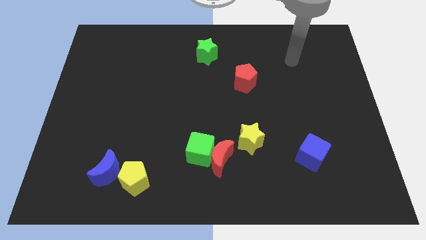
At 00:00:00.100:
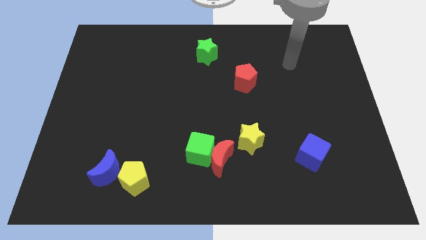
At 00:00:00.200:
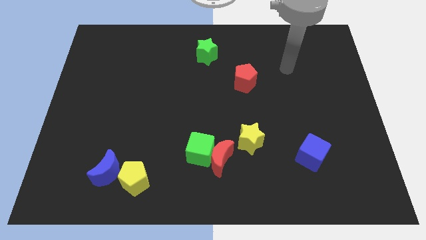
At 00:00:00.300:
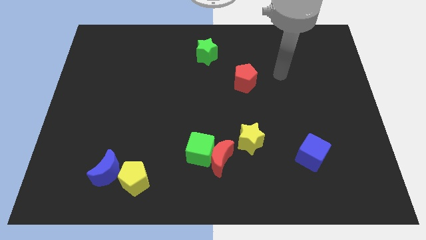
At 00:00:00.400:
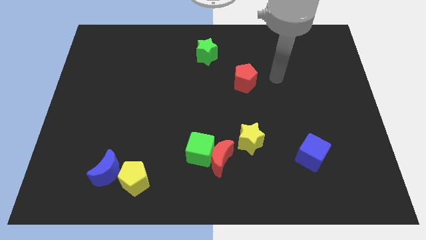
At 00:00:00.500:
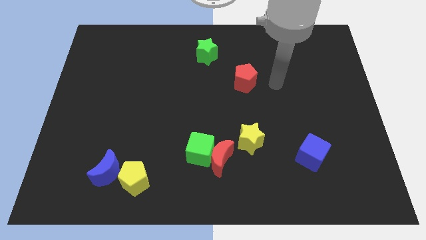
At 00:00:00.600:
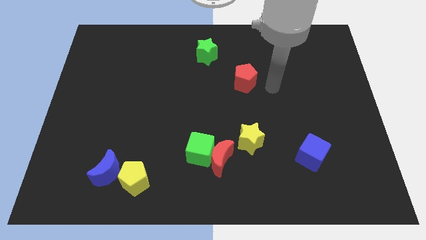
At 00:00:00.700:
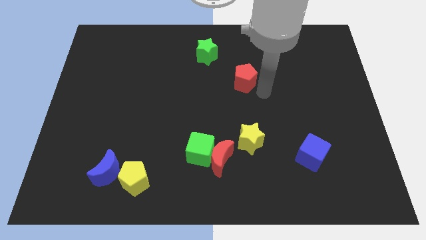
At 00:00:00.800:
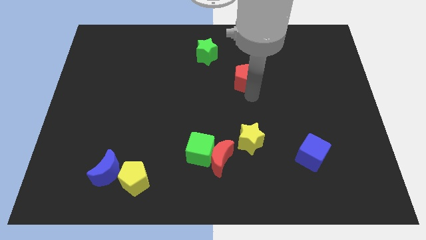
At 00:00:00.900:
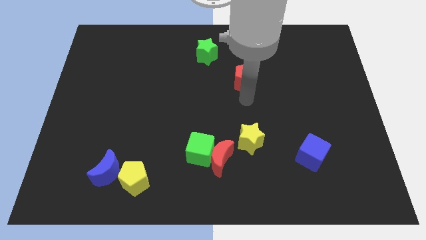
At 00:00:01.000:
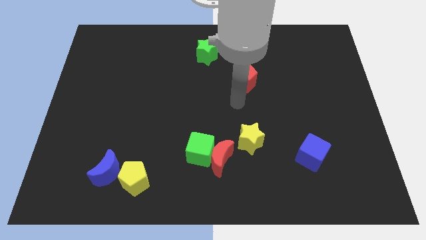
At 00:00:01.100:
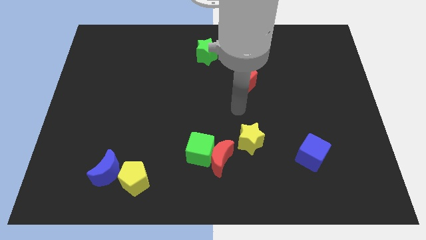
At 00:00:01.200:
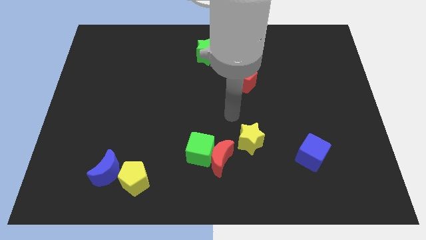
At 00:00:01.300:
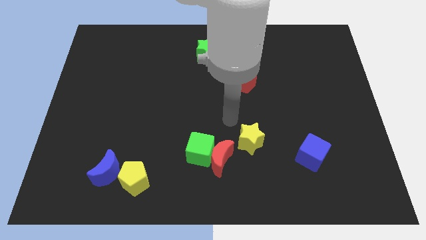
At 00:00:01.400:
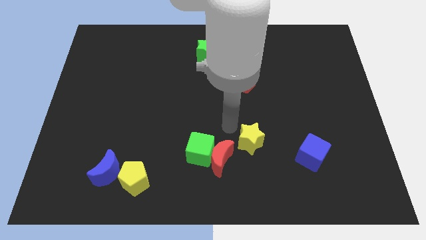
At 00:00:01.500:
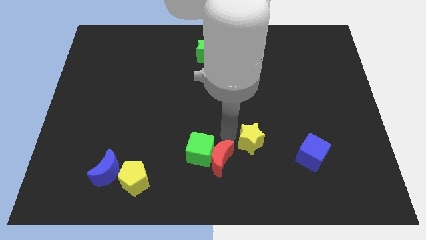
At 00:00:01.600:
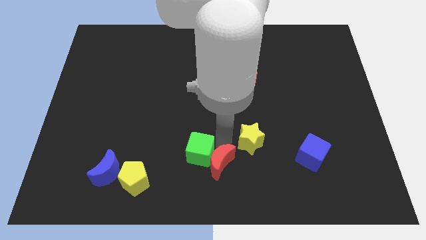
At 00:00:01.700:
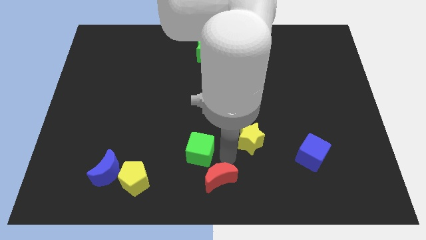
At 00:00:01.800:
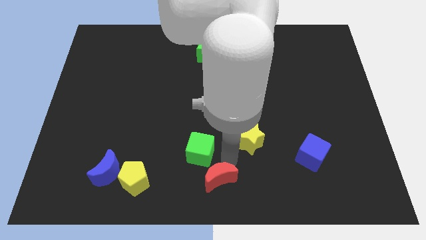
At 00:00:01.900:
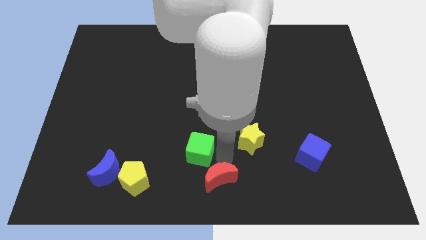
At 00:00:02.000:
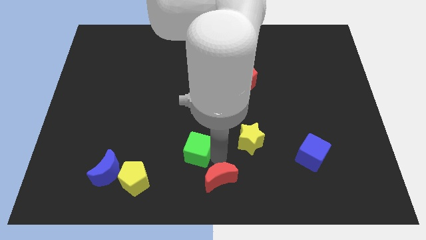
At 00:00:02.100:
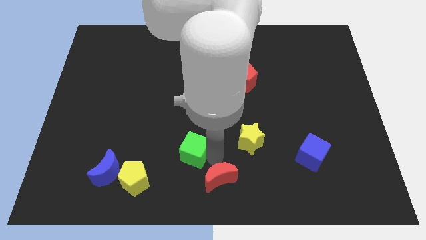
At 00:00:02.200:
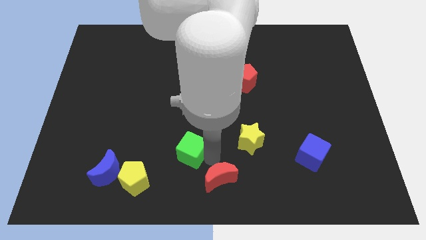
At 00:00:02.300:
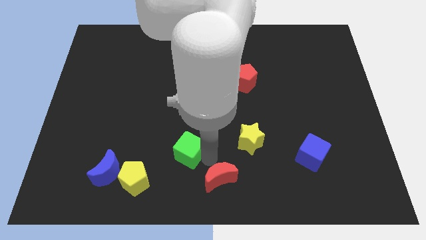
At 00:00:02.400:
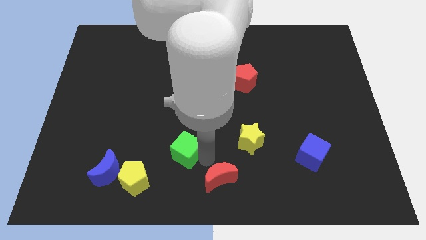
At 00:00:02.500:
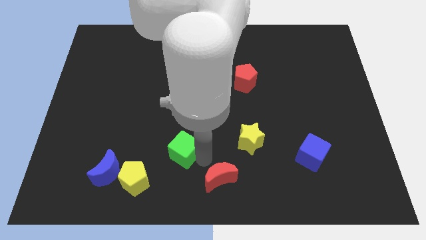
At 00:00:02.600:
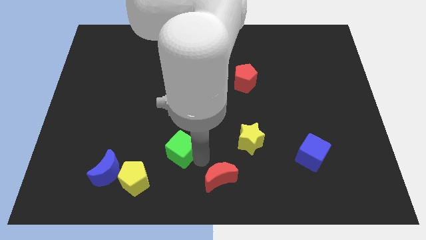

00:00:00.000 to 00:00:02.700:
pull the green cube apart from the red moon

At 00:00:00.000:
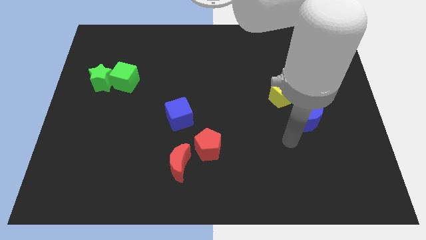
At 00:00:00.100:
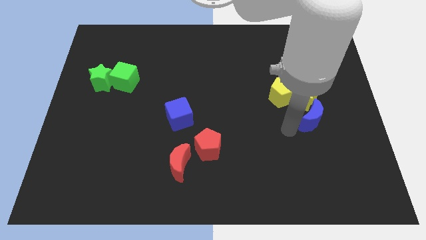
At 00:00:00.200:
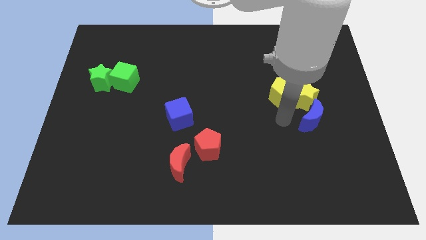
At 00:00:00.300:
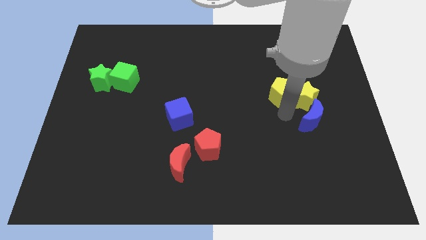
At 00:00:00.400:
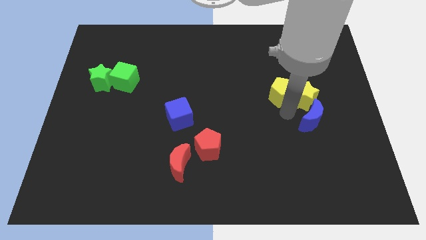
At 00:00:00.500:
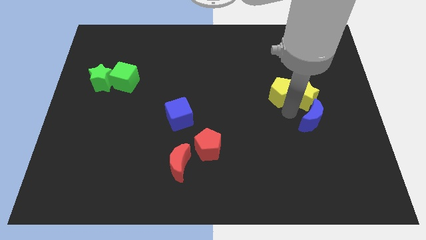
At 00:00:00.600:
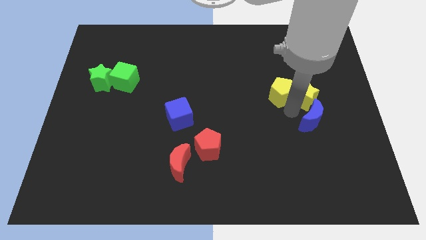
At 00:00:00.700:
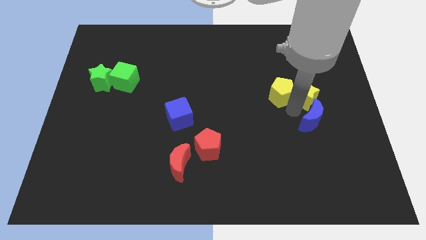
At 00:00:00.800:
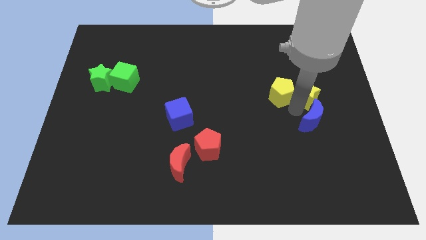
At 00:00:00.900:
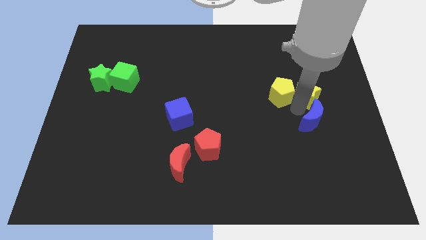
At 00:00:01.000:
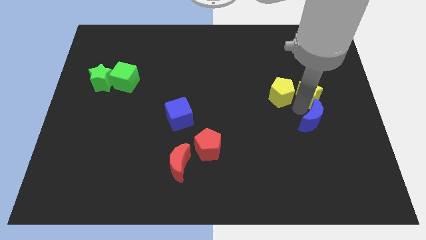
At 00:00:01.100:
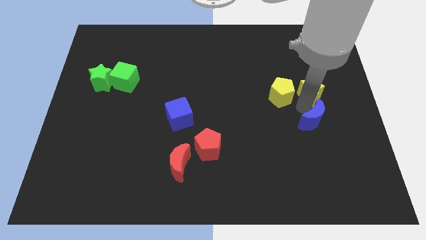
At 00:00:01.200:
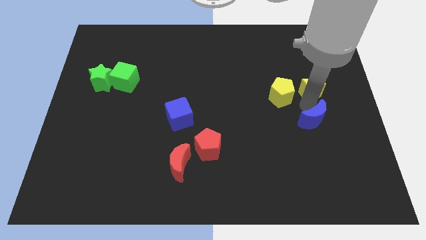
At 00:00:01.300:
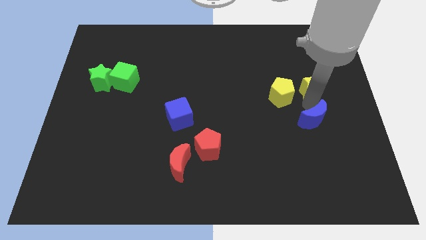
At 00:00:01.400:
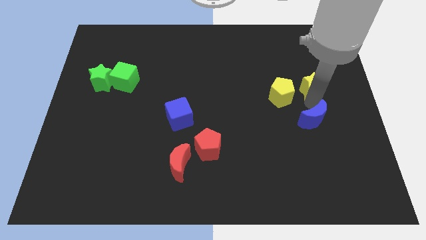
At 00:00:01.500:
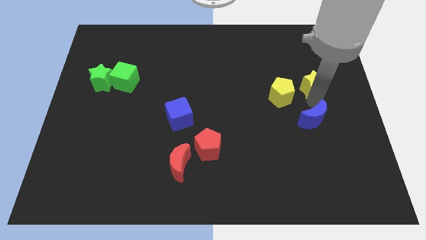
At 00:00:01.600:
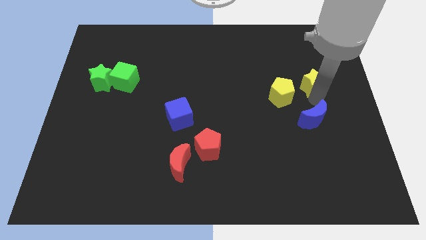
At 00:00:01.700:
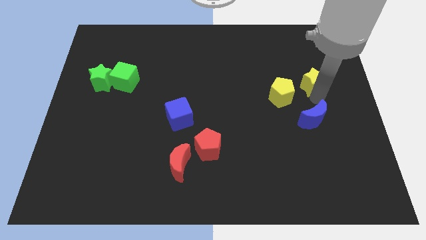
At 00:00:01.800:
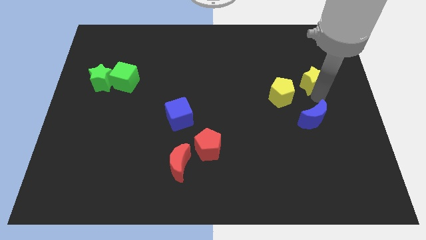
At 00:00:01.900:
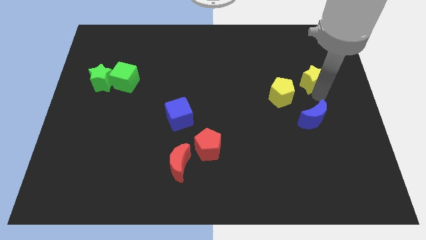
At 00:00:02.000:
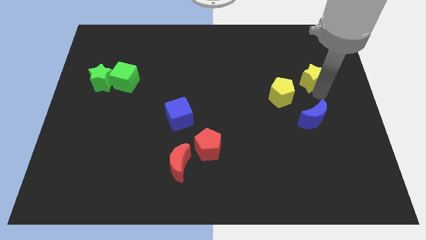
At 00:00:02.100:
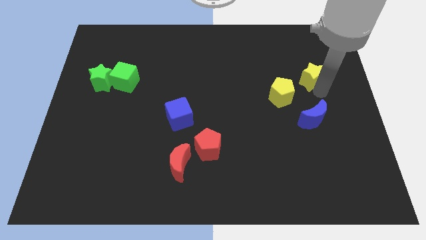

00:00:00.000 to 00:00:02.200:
move the yellow star away from the yellow pentagon and blue moon

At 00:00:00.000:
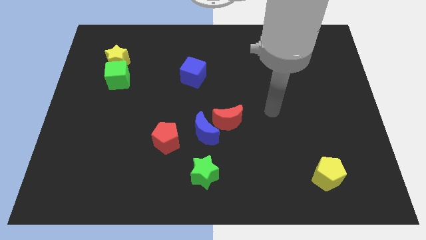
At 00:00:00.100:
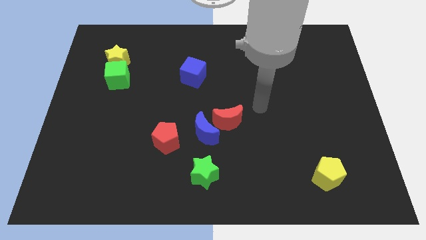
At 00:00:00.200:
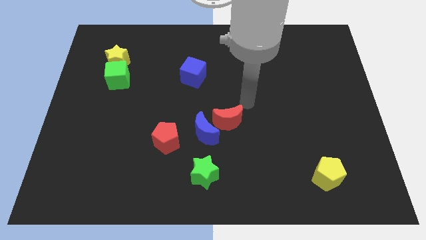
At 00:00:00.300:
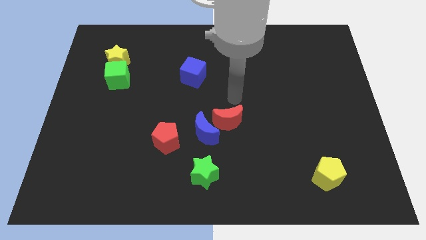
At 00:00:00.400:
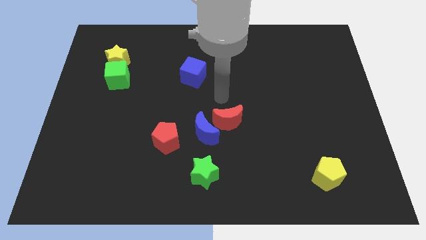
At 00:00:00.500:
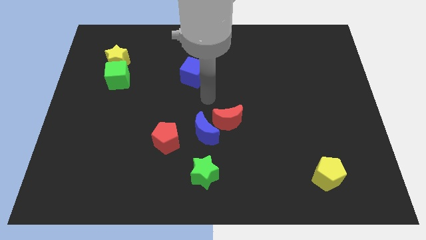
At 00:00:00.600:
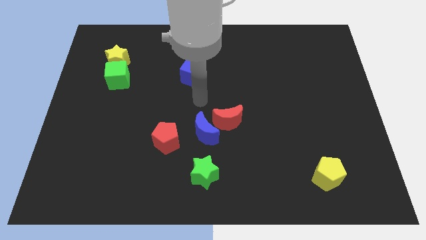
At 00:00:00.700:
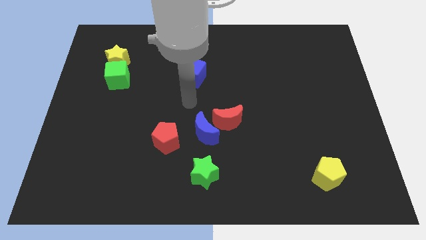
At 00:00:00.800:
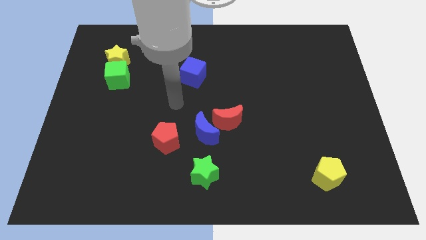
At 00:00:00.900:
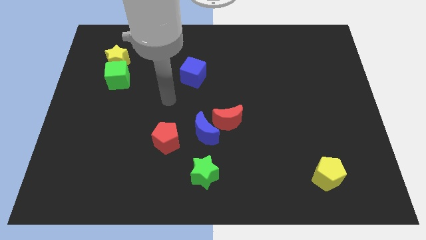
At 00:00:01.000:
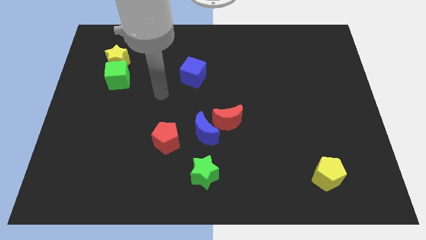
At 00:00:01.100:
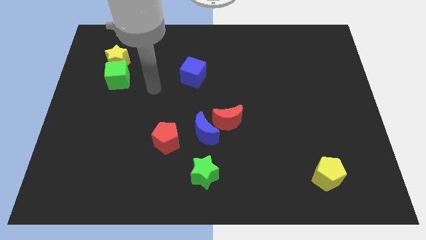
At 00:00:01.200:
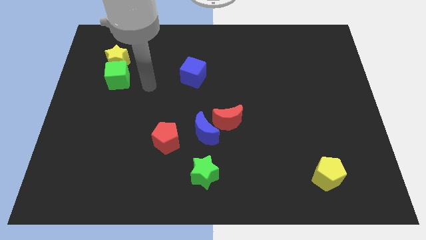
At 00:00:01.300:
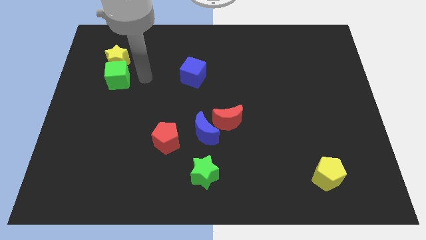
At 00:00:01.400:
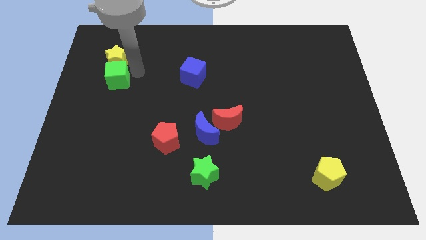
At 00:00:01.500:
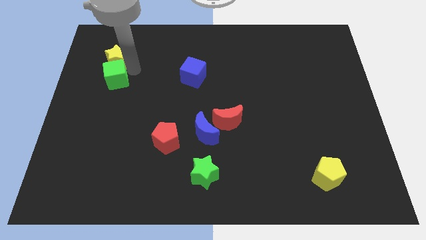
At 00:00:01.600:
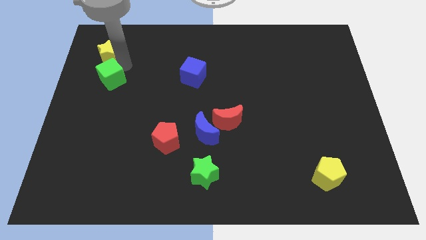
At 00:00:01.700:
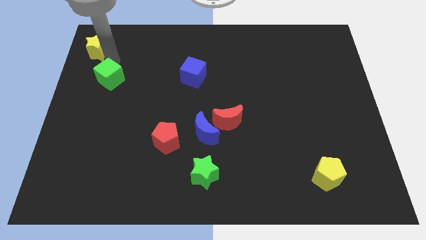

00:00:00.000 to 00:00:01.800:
separate the green cube from the yellow star

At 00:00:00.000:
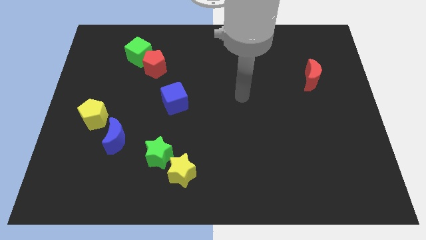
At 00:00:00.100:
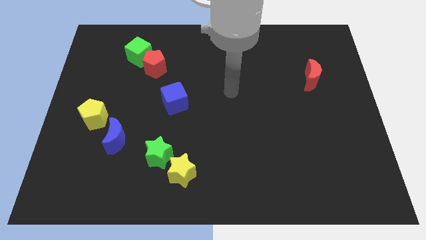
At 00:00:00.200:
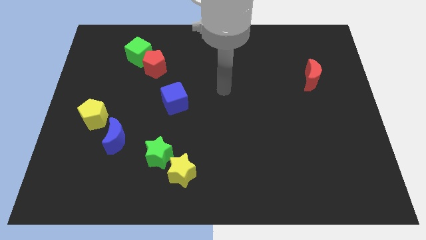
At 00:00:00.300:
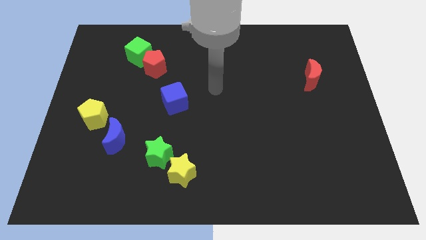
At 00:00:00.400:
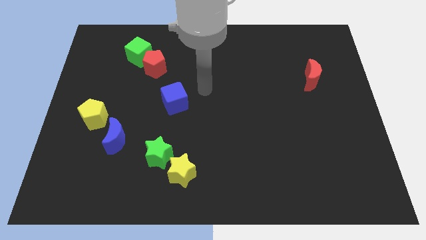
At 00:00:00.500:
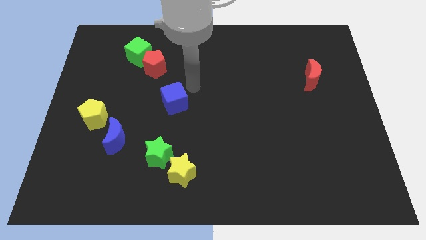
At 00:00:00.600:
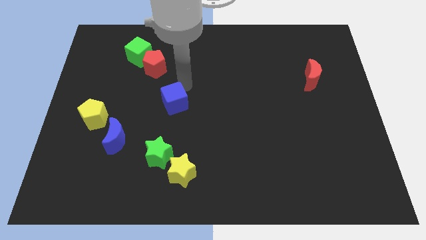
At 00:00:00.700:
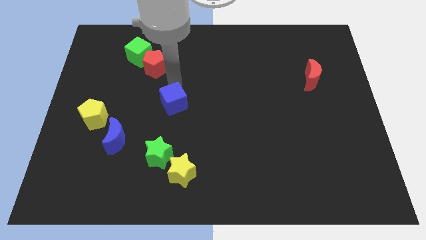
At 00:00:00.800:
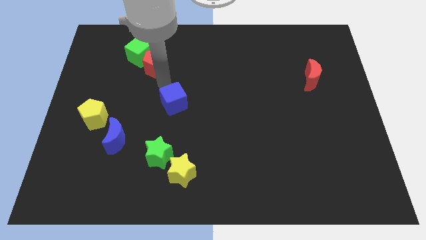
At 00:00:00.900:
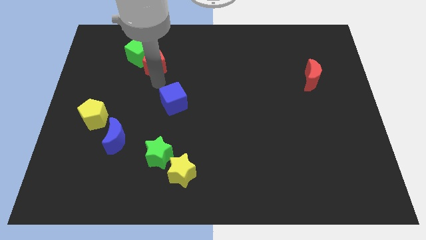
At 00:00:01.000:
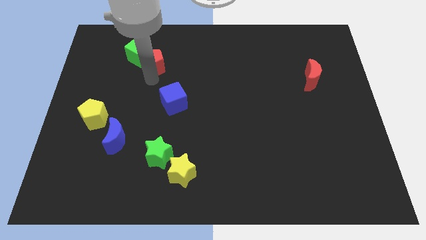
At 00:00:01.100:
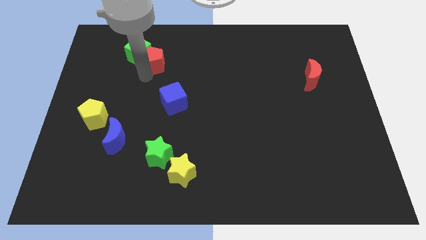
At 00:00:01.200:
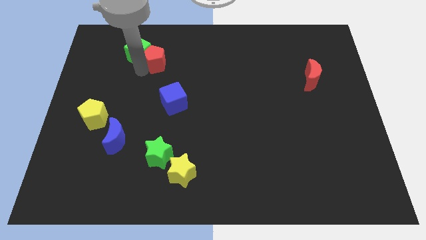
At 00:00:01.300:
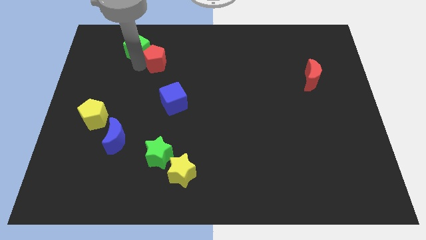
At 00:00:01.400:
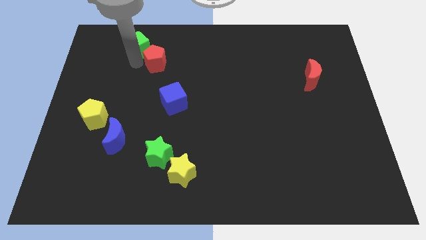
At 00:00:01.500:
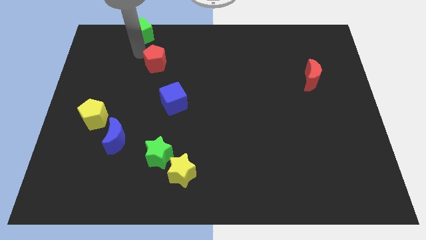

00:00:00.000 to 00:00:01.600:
separate the red pentagon from the green cube

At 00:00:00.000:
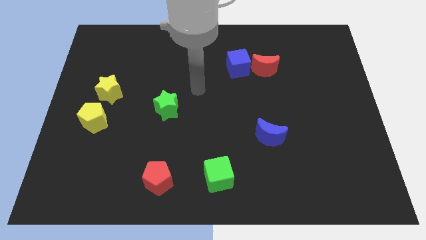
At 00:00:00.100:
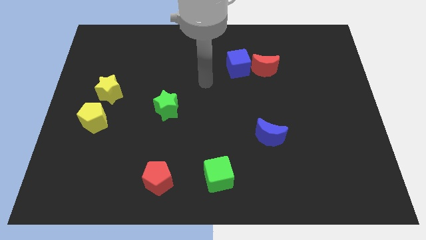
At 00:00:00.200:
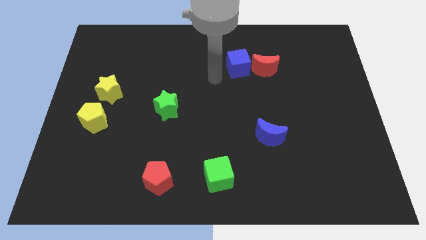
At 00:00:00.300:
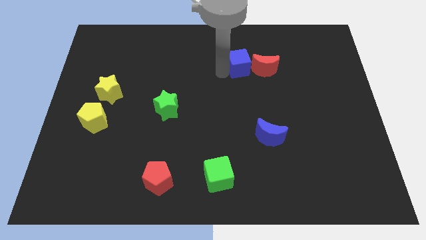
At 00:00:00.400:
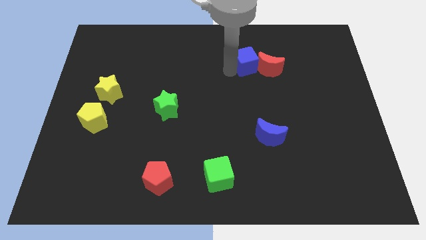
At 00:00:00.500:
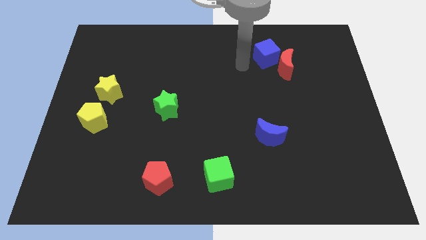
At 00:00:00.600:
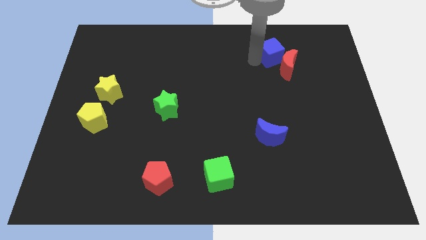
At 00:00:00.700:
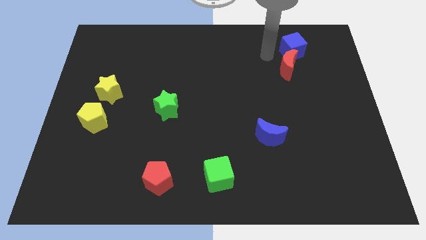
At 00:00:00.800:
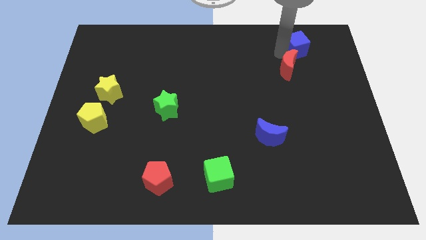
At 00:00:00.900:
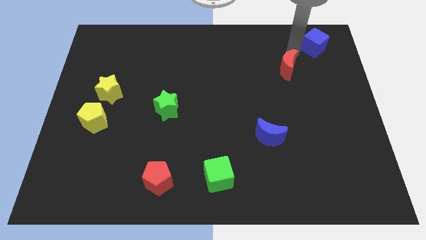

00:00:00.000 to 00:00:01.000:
separate the red moon from the blue cube
